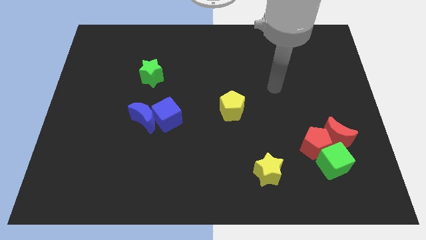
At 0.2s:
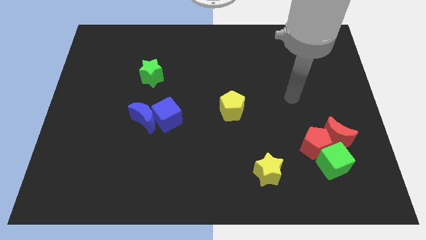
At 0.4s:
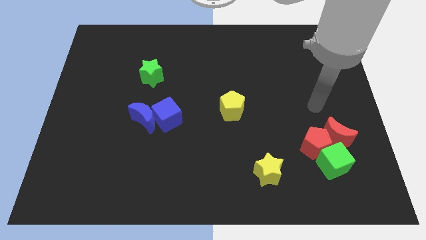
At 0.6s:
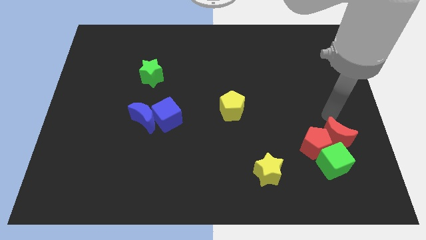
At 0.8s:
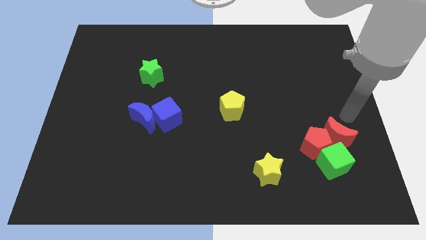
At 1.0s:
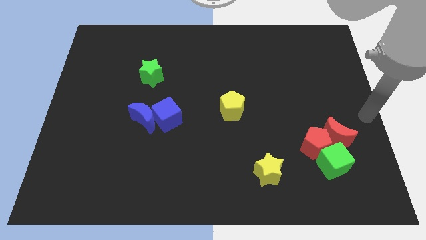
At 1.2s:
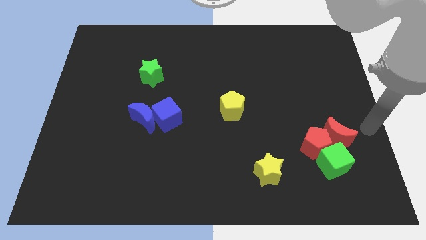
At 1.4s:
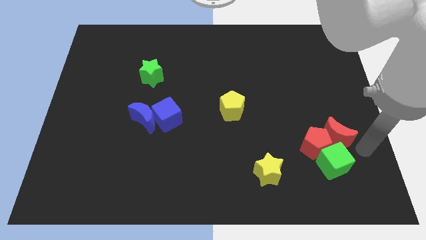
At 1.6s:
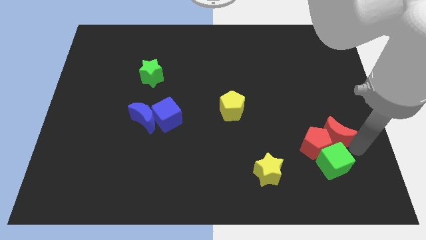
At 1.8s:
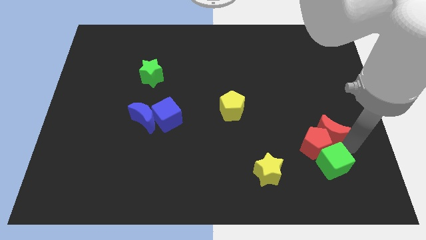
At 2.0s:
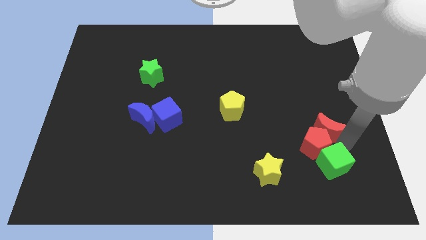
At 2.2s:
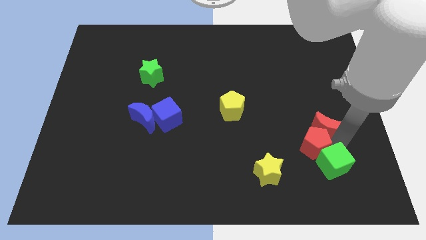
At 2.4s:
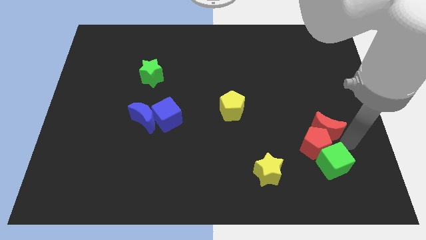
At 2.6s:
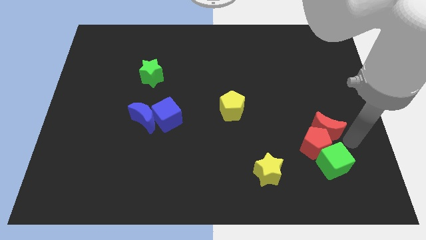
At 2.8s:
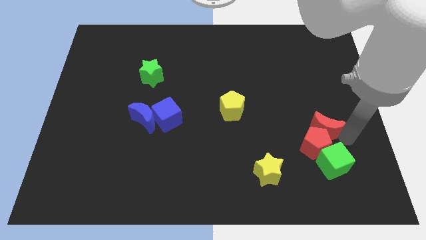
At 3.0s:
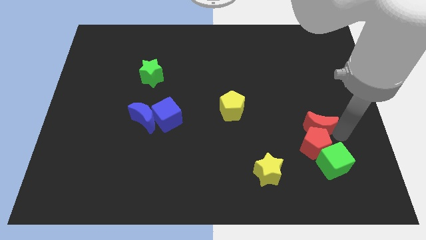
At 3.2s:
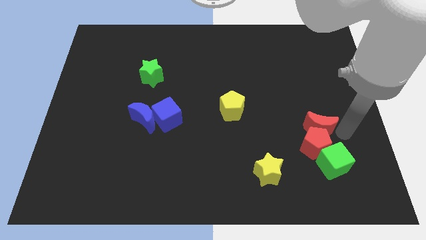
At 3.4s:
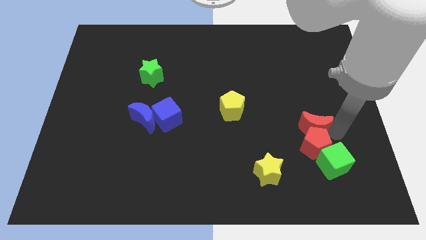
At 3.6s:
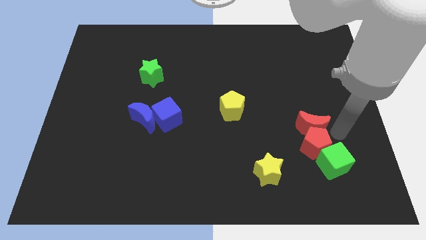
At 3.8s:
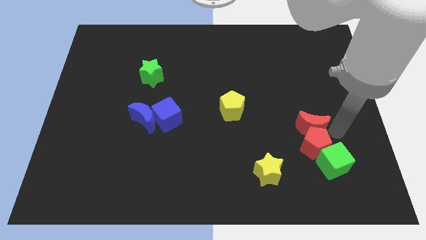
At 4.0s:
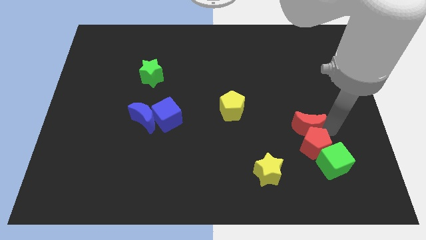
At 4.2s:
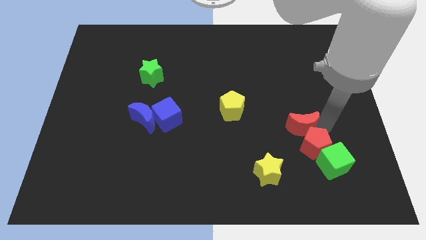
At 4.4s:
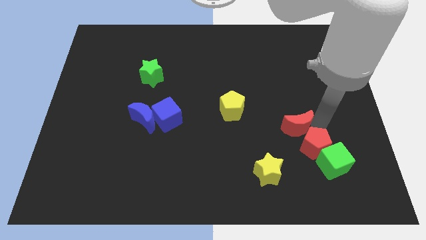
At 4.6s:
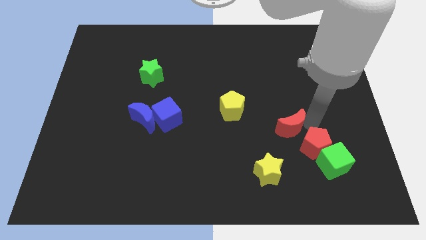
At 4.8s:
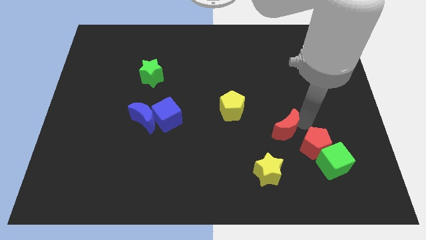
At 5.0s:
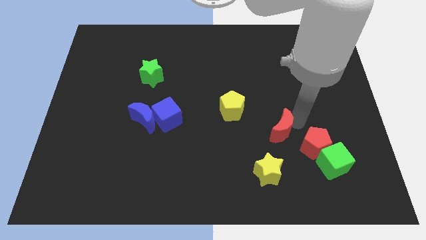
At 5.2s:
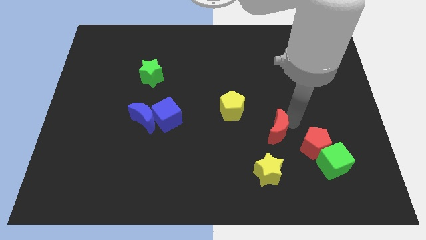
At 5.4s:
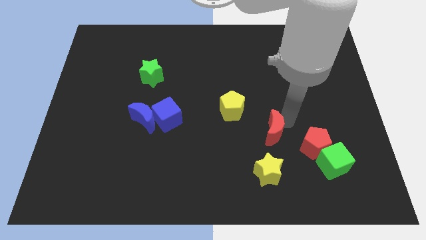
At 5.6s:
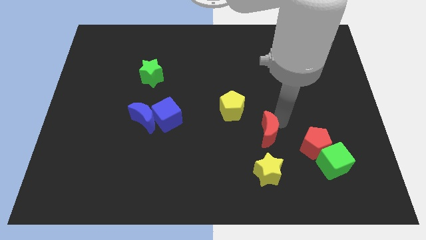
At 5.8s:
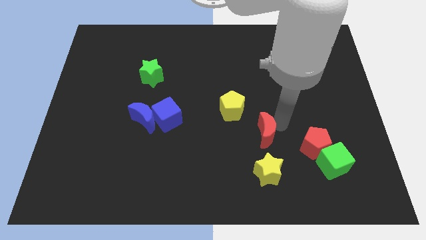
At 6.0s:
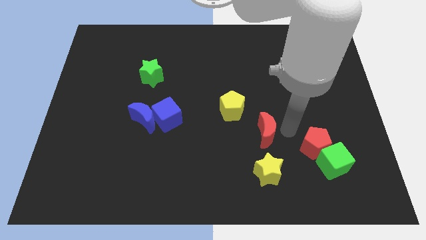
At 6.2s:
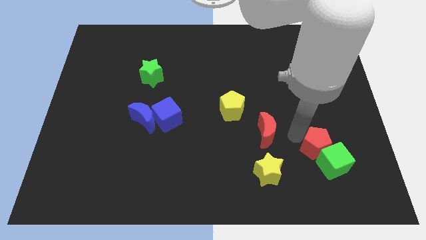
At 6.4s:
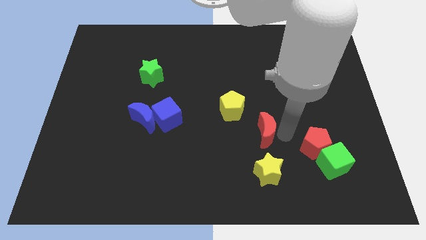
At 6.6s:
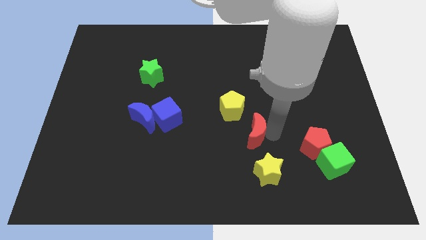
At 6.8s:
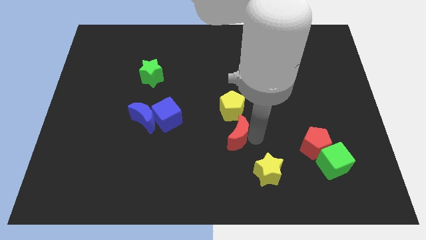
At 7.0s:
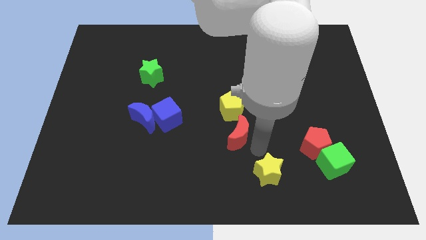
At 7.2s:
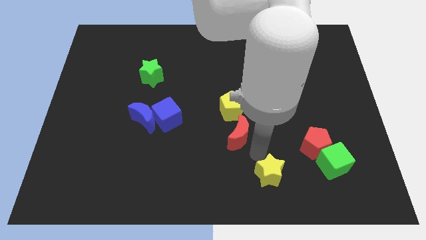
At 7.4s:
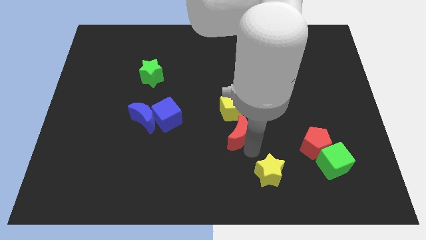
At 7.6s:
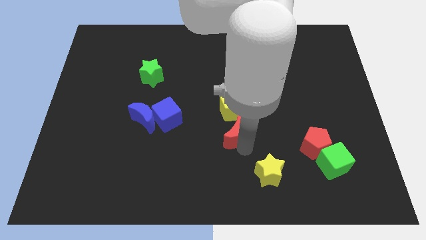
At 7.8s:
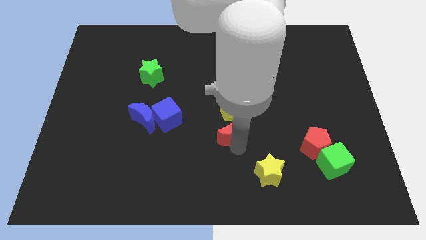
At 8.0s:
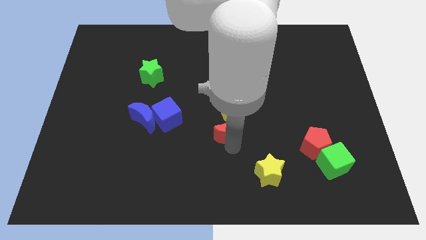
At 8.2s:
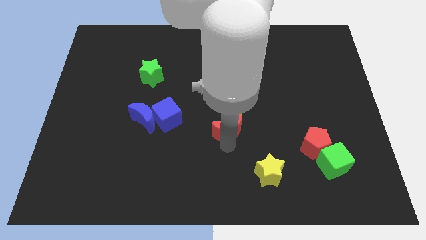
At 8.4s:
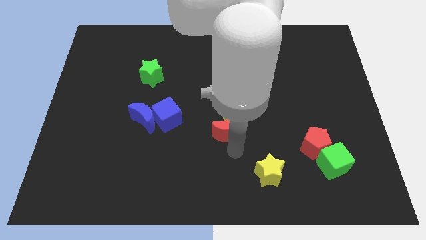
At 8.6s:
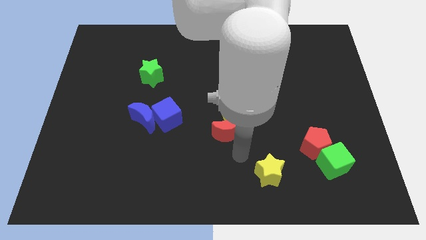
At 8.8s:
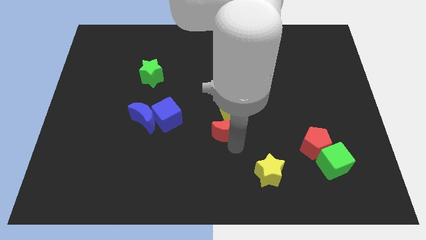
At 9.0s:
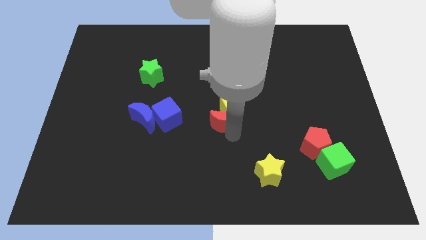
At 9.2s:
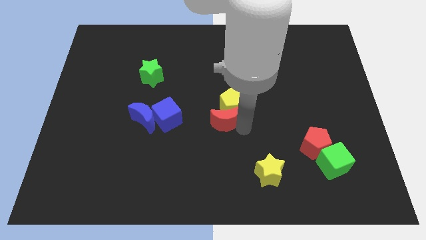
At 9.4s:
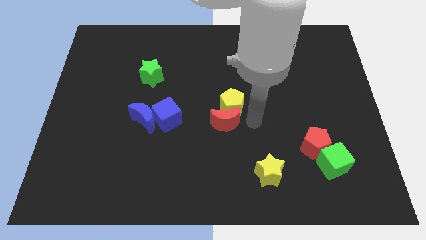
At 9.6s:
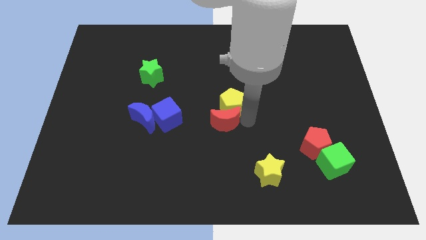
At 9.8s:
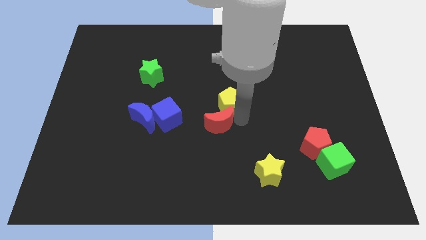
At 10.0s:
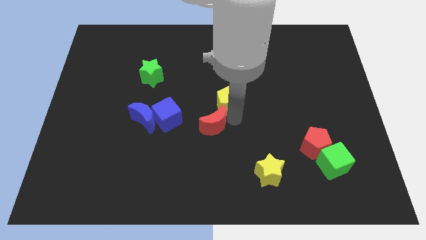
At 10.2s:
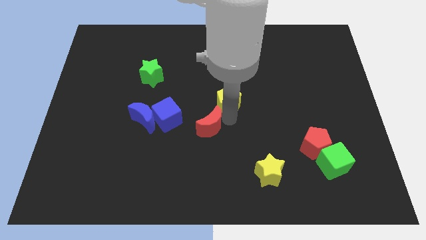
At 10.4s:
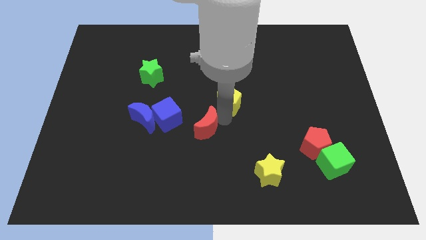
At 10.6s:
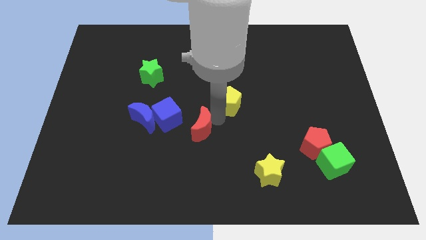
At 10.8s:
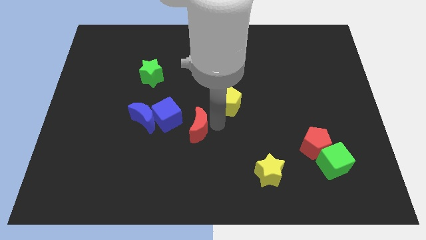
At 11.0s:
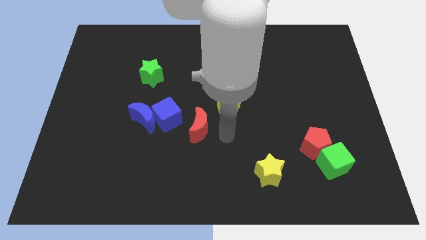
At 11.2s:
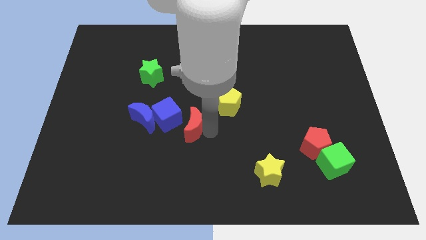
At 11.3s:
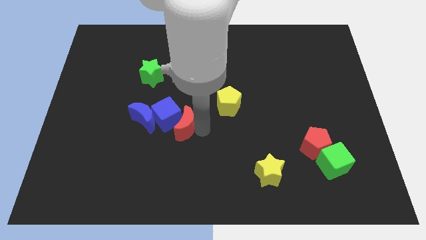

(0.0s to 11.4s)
push the red moon next to the blue cube

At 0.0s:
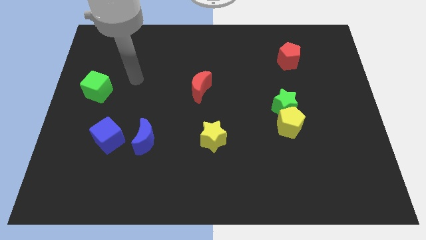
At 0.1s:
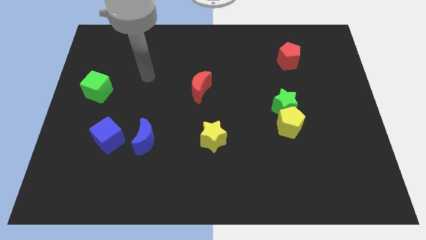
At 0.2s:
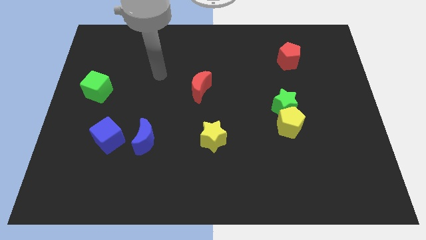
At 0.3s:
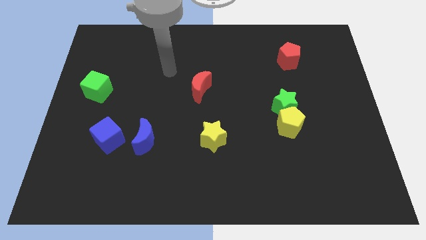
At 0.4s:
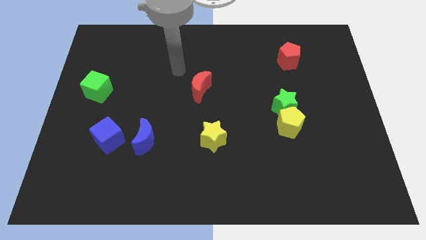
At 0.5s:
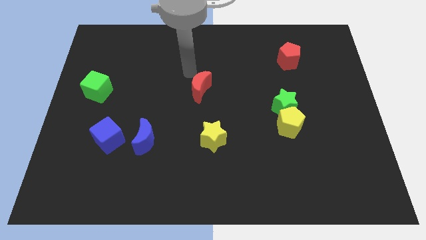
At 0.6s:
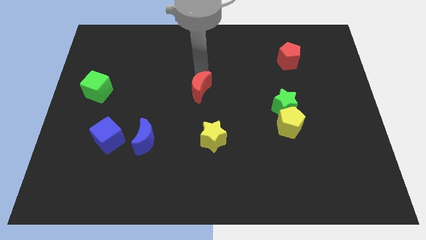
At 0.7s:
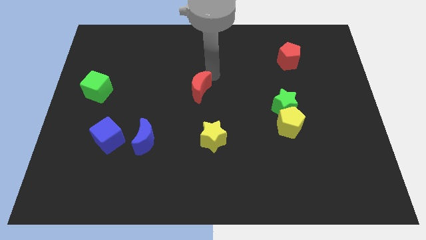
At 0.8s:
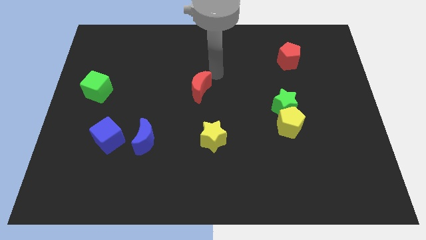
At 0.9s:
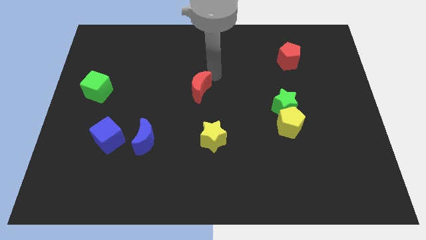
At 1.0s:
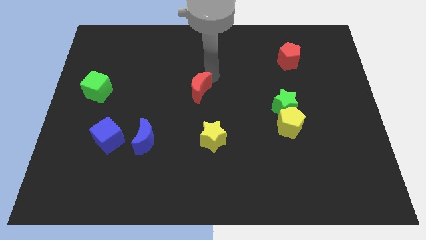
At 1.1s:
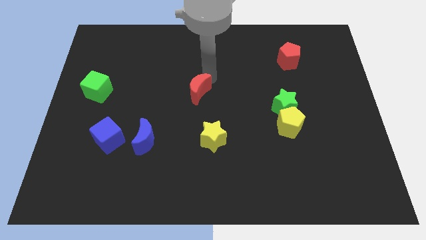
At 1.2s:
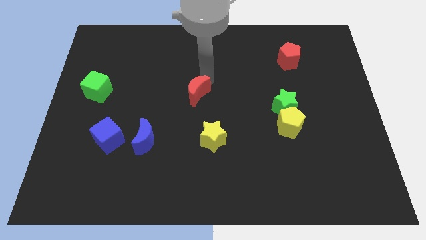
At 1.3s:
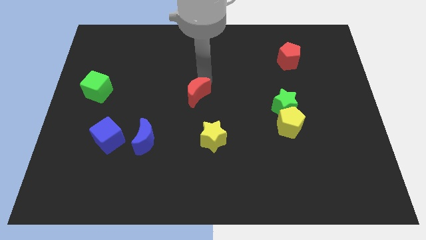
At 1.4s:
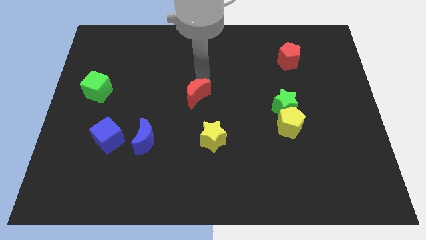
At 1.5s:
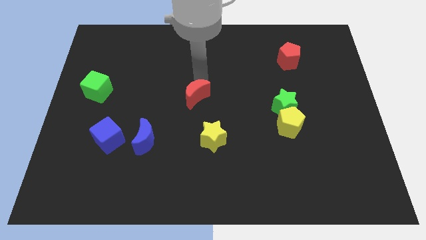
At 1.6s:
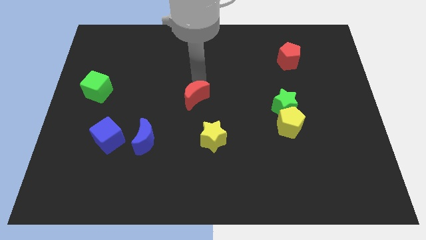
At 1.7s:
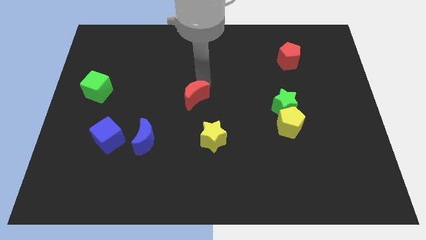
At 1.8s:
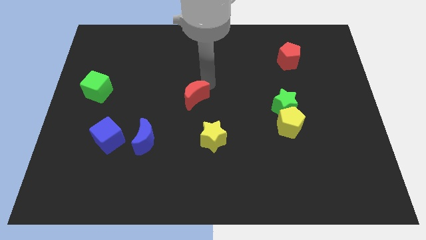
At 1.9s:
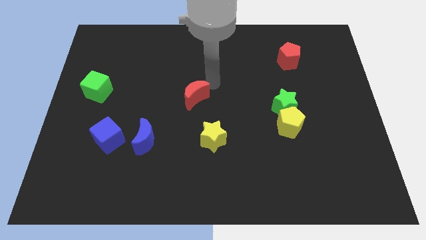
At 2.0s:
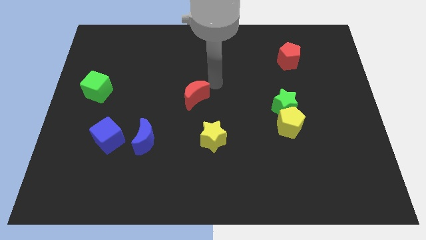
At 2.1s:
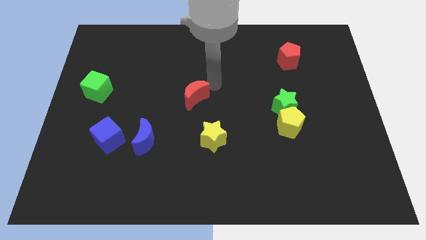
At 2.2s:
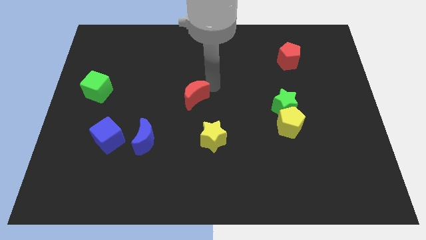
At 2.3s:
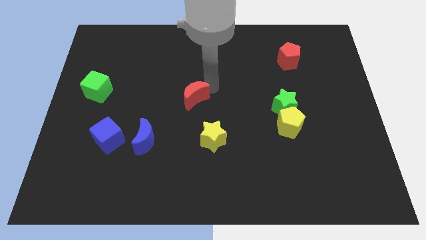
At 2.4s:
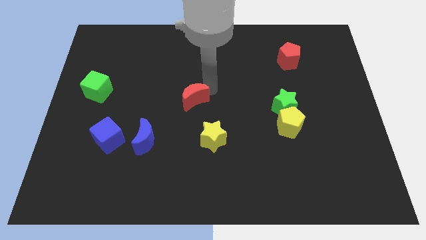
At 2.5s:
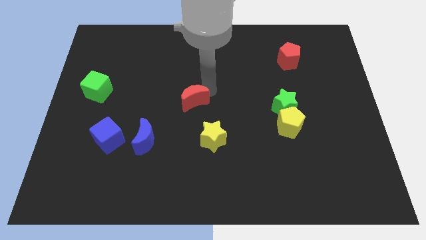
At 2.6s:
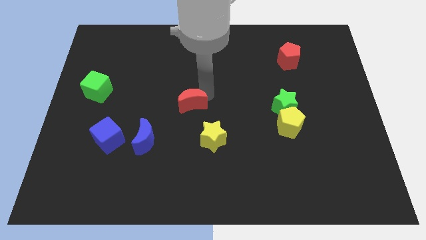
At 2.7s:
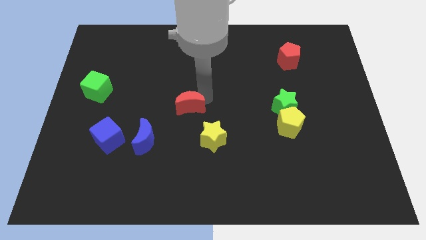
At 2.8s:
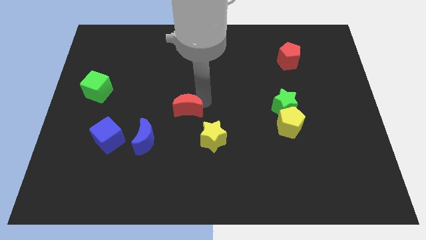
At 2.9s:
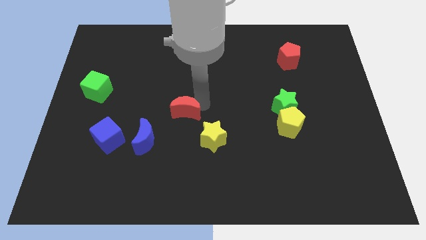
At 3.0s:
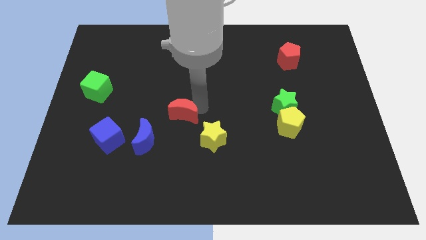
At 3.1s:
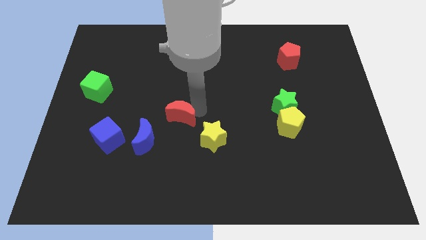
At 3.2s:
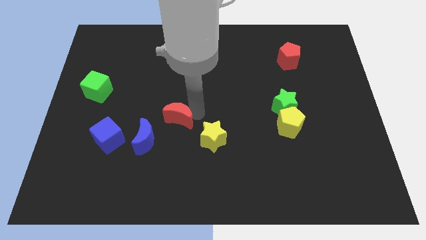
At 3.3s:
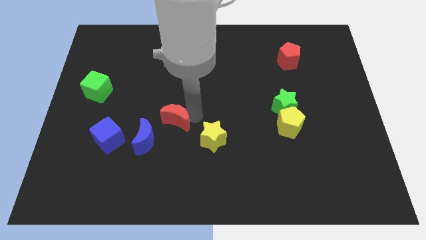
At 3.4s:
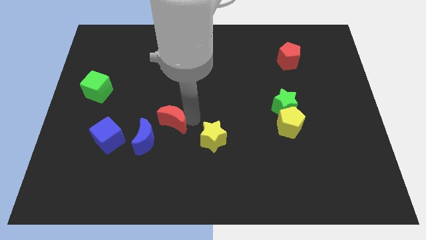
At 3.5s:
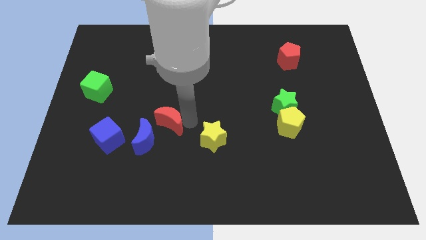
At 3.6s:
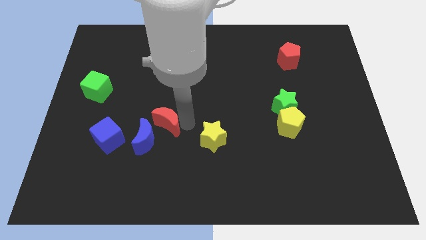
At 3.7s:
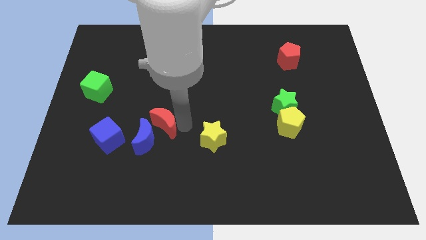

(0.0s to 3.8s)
move the red moon to the blue moon
